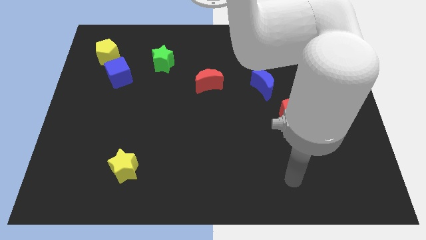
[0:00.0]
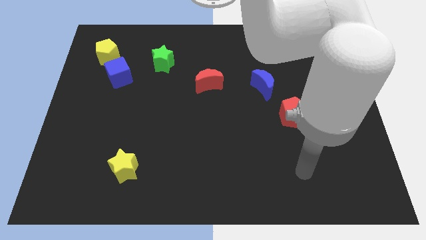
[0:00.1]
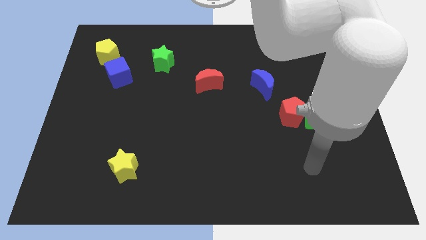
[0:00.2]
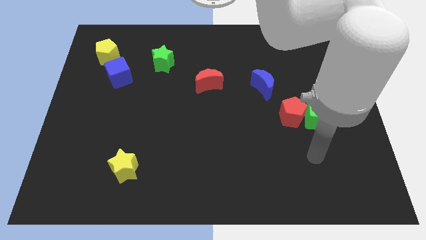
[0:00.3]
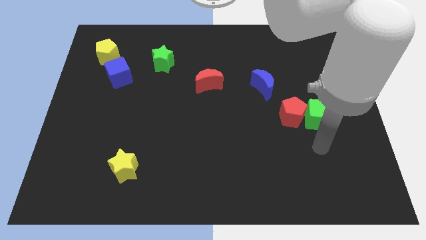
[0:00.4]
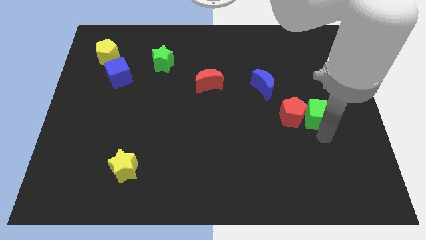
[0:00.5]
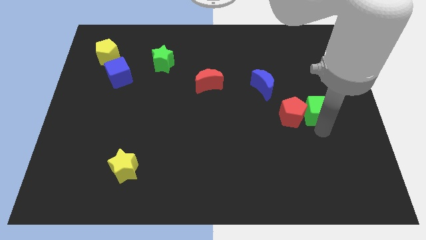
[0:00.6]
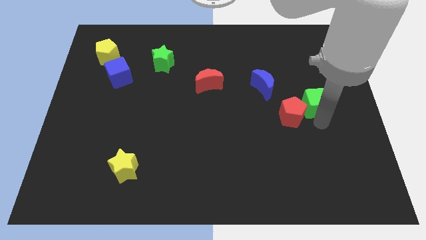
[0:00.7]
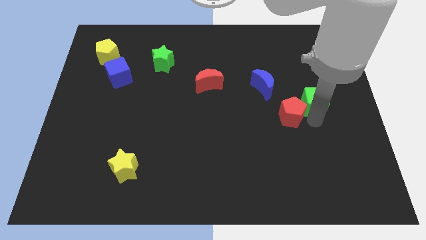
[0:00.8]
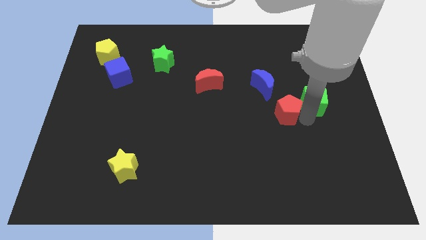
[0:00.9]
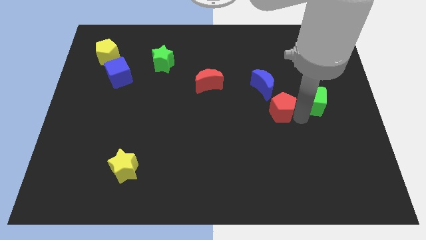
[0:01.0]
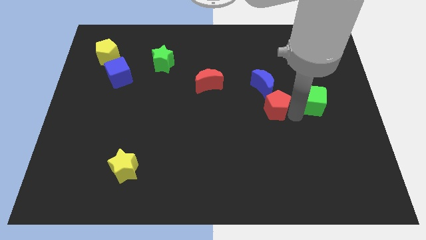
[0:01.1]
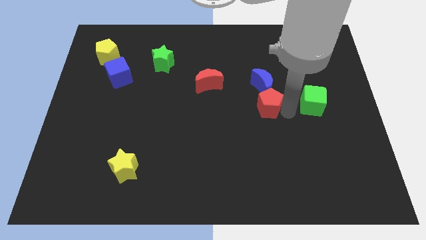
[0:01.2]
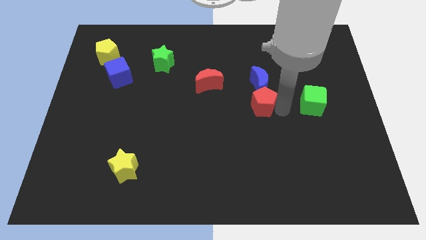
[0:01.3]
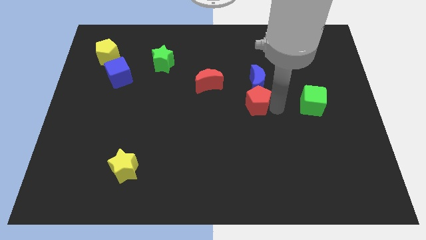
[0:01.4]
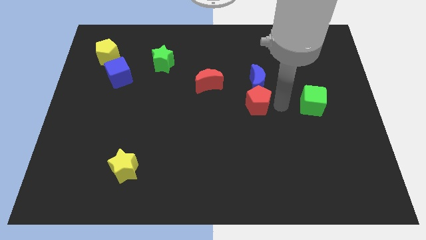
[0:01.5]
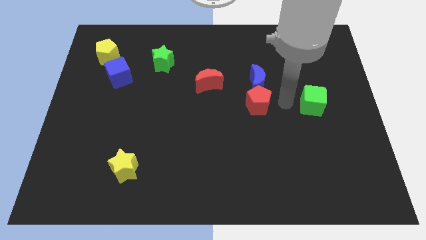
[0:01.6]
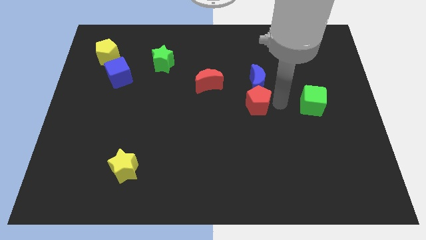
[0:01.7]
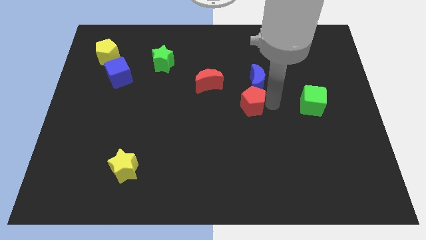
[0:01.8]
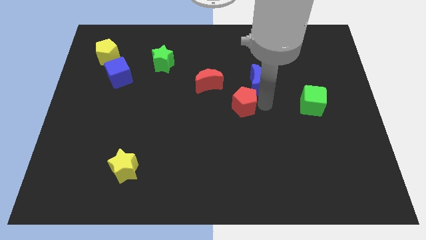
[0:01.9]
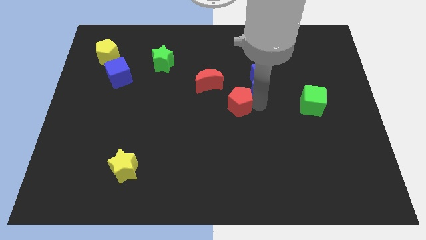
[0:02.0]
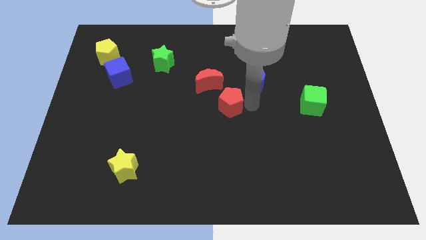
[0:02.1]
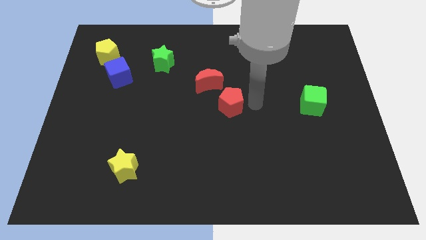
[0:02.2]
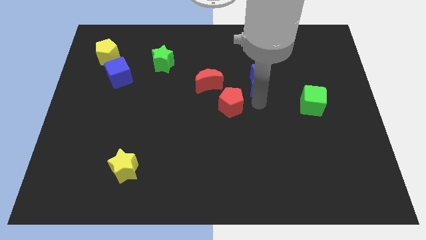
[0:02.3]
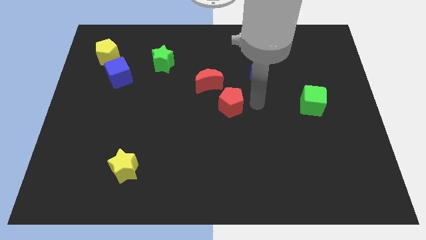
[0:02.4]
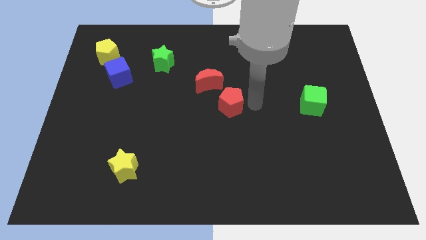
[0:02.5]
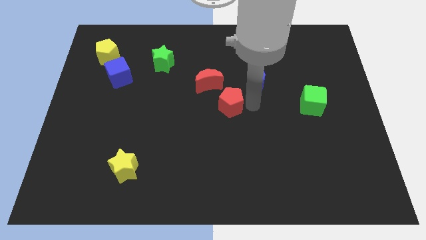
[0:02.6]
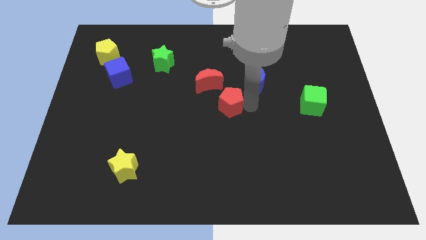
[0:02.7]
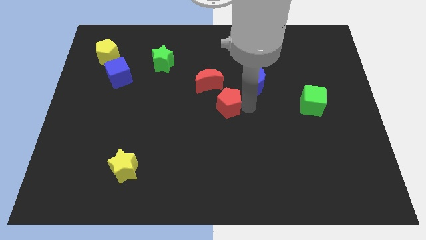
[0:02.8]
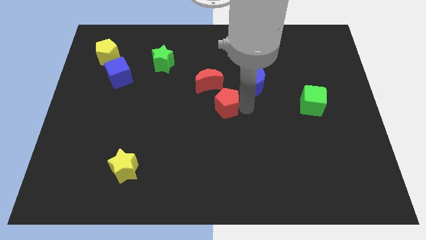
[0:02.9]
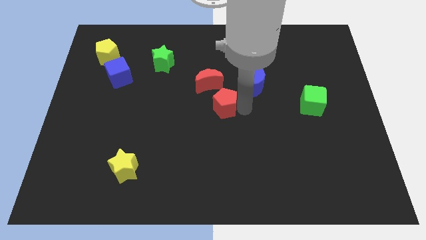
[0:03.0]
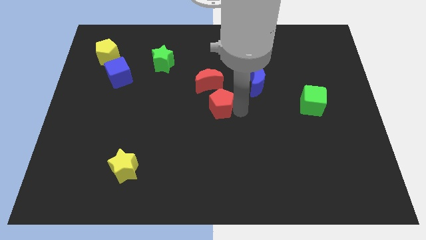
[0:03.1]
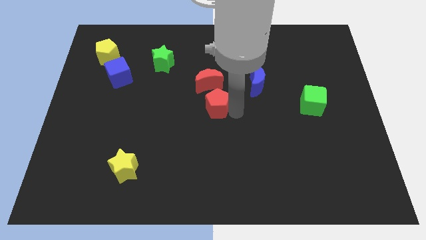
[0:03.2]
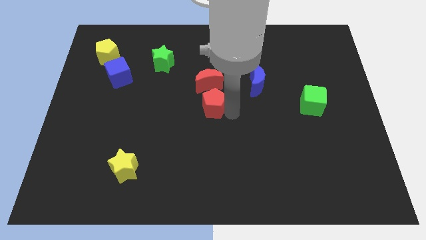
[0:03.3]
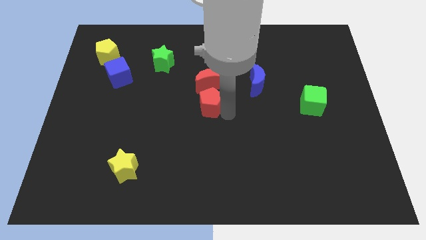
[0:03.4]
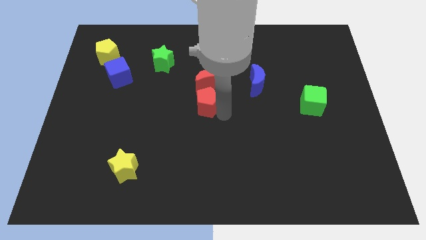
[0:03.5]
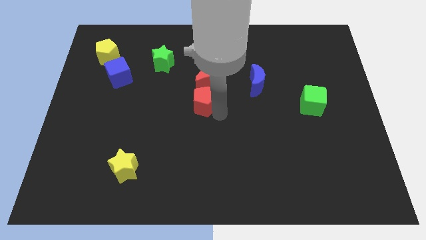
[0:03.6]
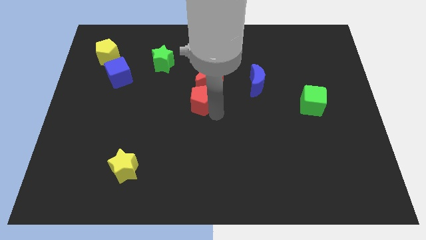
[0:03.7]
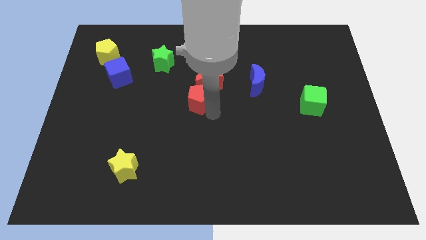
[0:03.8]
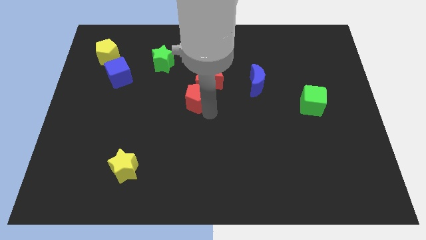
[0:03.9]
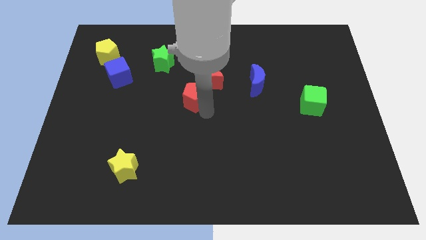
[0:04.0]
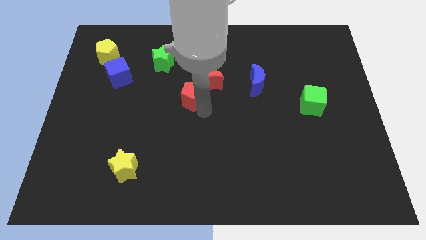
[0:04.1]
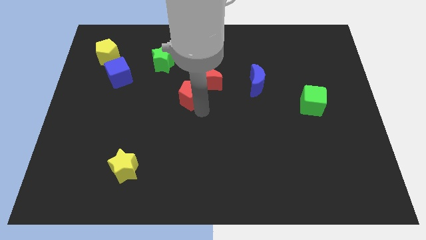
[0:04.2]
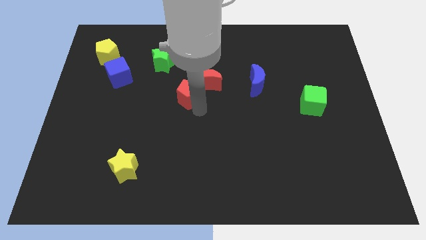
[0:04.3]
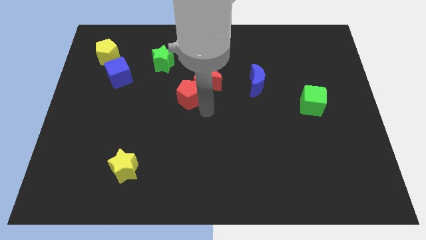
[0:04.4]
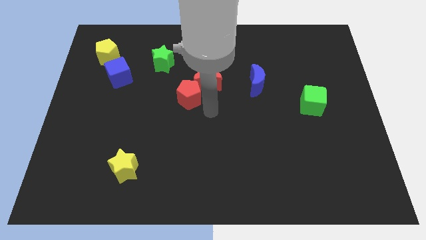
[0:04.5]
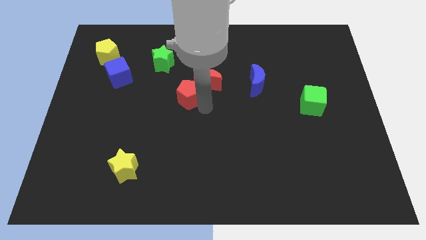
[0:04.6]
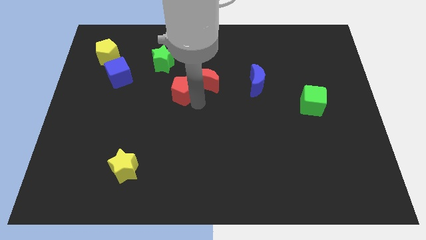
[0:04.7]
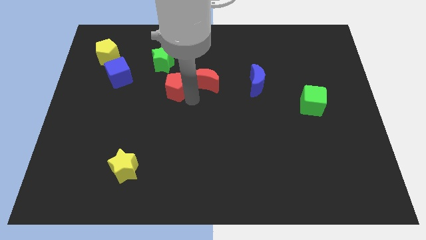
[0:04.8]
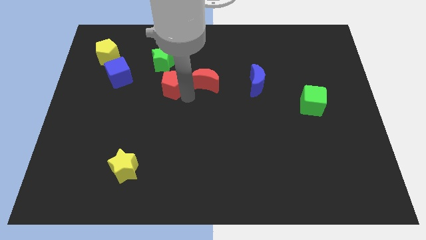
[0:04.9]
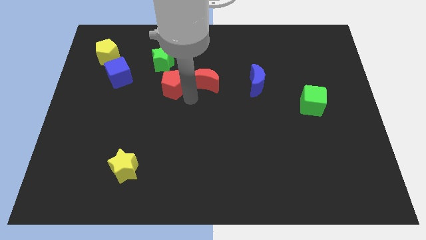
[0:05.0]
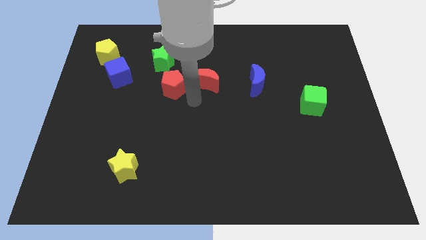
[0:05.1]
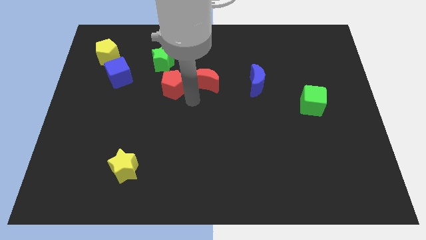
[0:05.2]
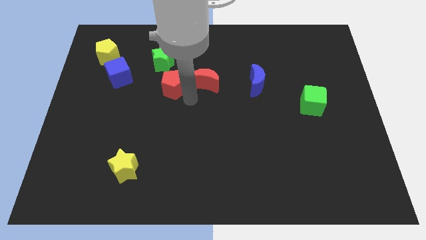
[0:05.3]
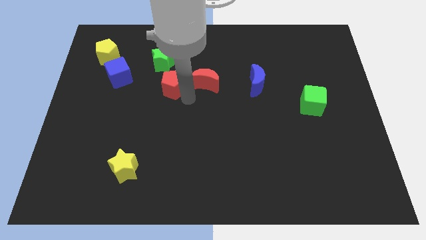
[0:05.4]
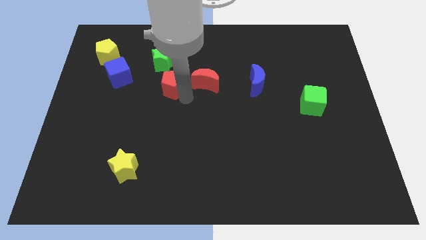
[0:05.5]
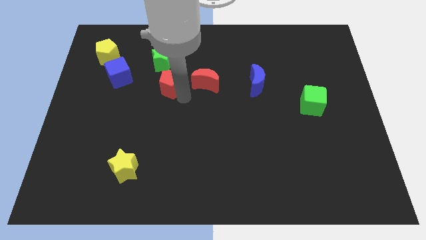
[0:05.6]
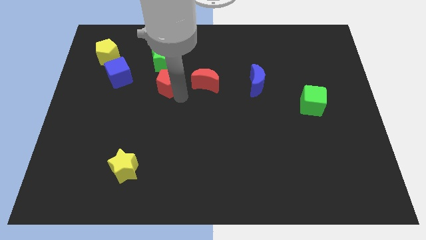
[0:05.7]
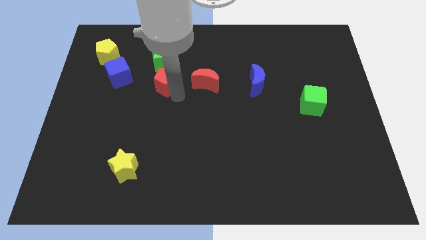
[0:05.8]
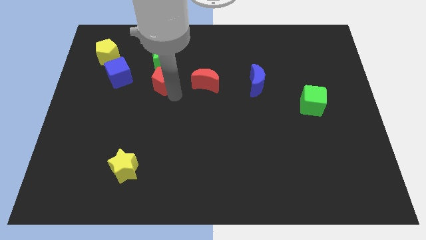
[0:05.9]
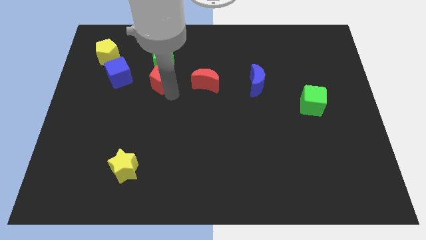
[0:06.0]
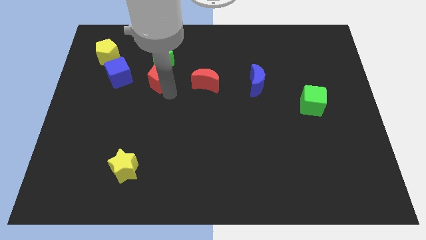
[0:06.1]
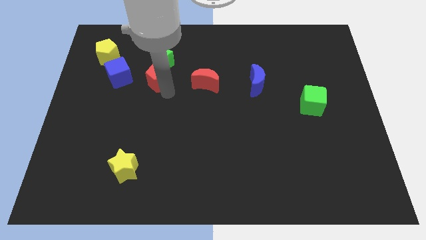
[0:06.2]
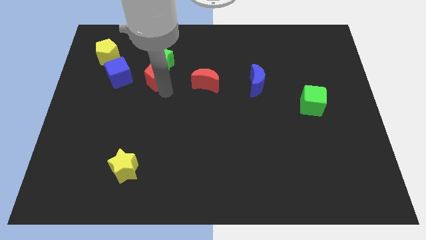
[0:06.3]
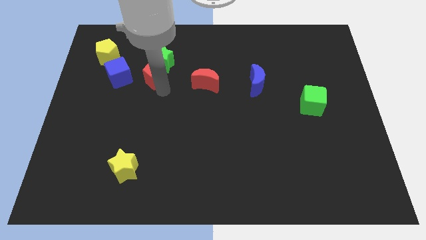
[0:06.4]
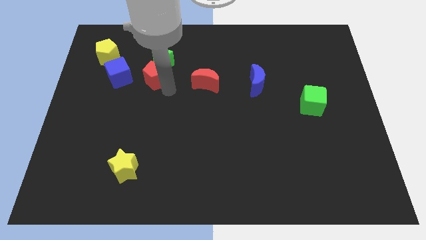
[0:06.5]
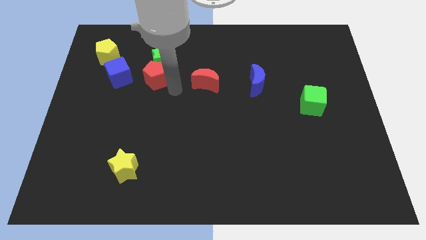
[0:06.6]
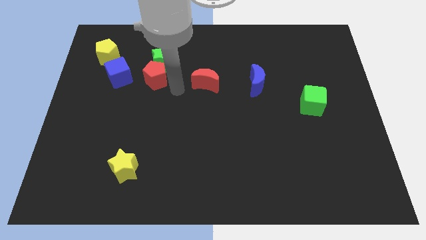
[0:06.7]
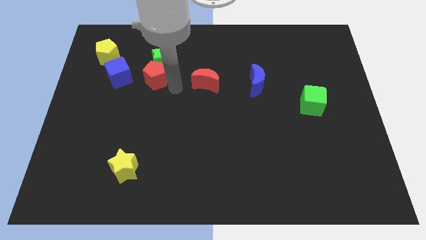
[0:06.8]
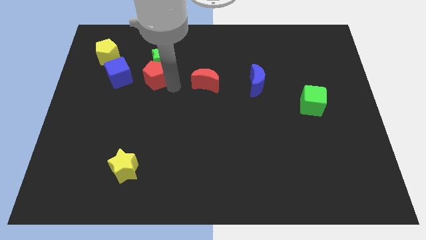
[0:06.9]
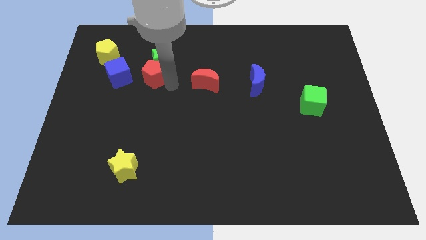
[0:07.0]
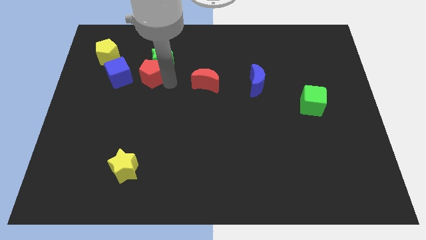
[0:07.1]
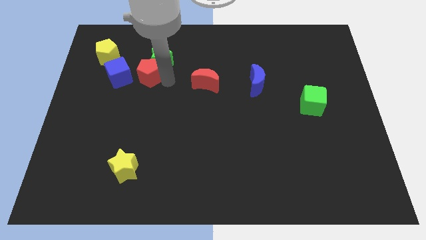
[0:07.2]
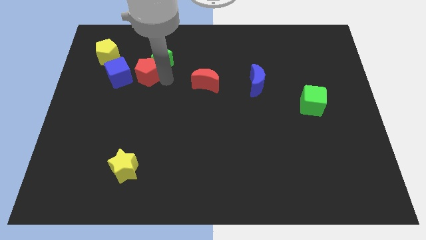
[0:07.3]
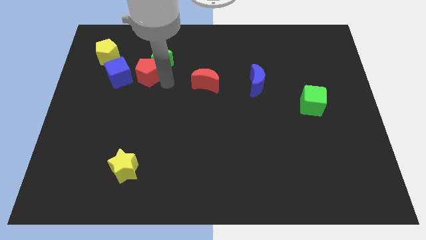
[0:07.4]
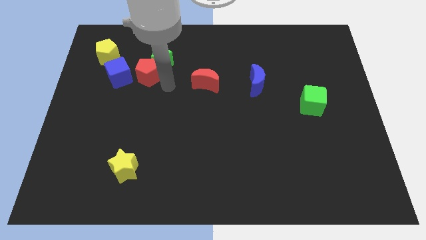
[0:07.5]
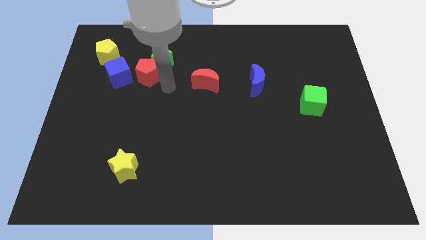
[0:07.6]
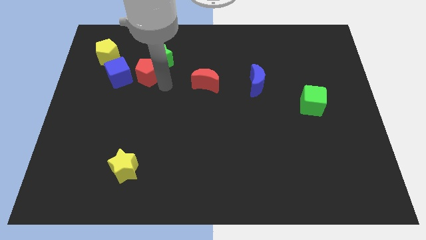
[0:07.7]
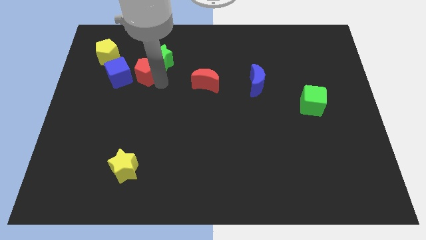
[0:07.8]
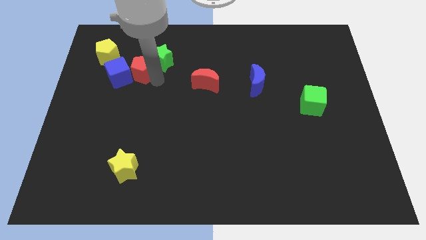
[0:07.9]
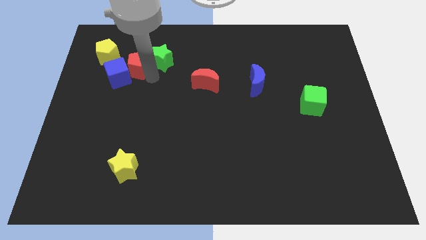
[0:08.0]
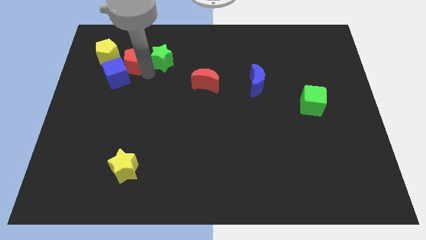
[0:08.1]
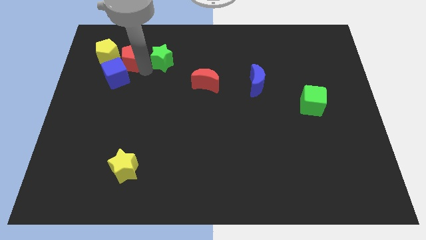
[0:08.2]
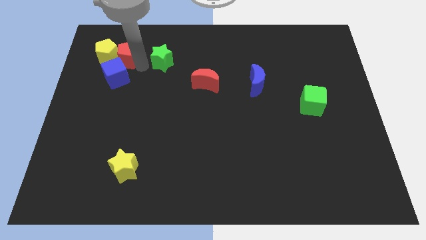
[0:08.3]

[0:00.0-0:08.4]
put the red pentagon to the yellow pentagon
